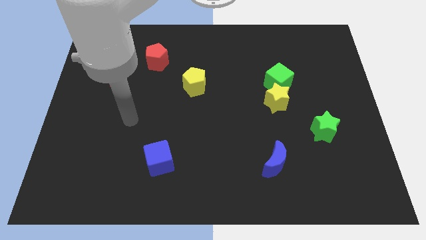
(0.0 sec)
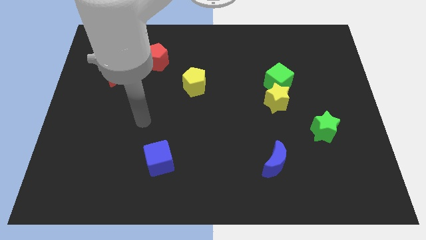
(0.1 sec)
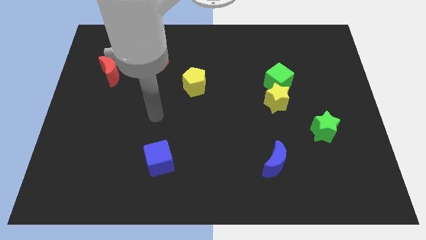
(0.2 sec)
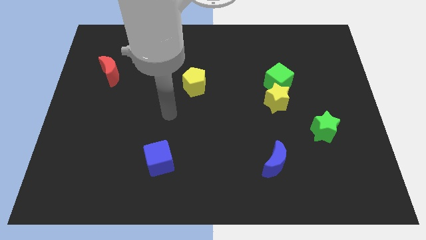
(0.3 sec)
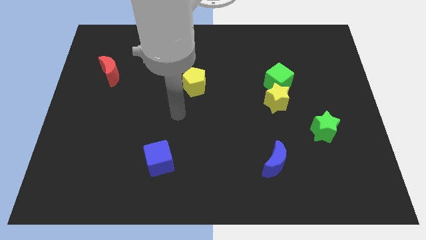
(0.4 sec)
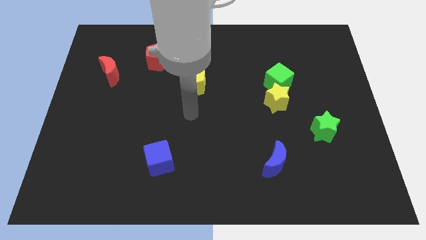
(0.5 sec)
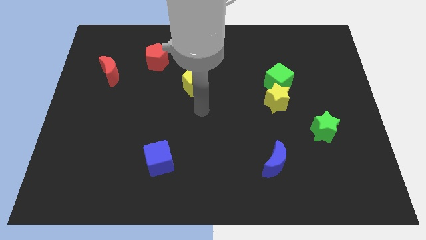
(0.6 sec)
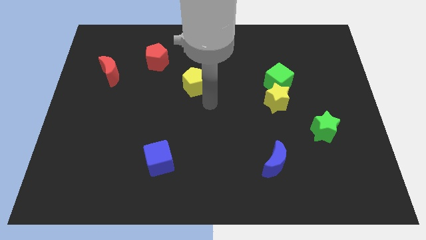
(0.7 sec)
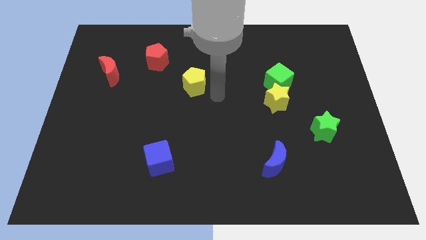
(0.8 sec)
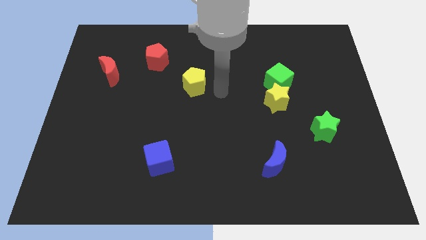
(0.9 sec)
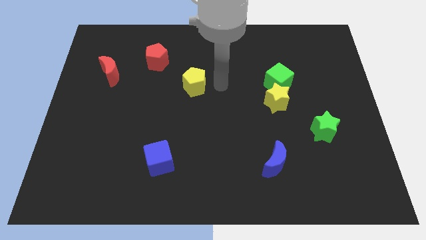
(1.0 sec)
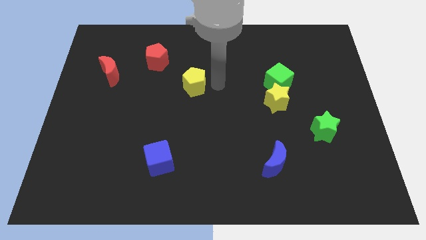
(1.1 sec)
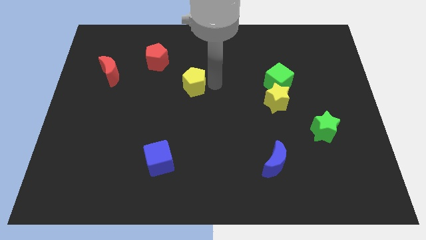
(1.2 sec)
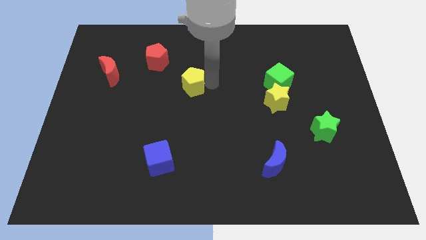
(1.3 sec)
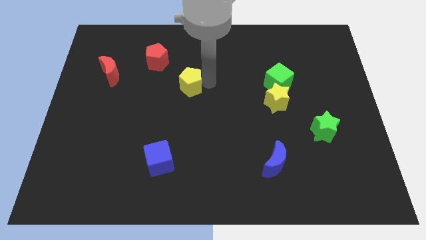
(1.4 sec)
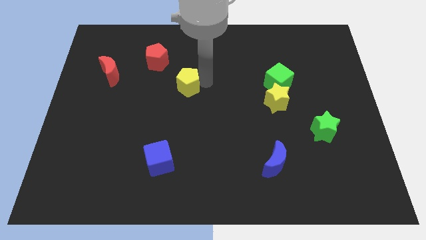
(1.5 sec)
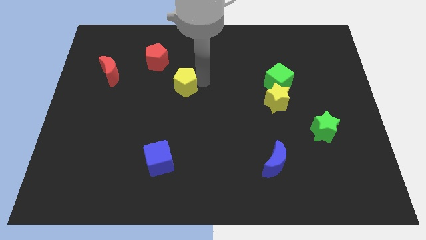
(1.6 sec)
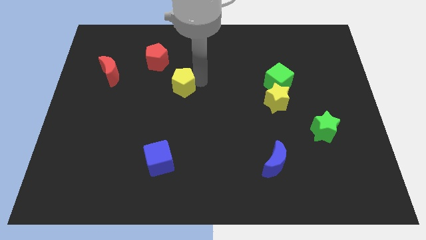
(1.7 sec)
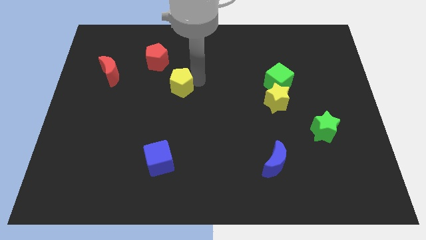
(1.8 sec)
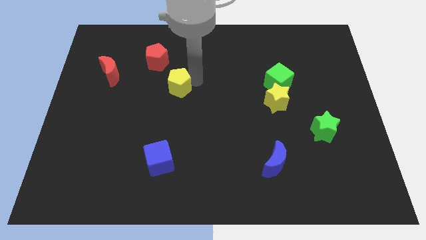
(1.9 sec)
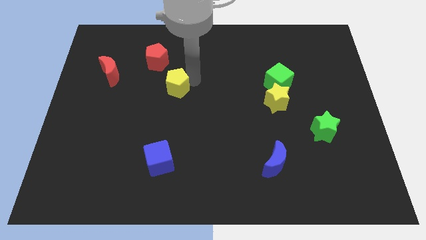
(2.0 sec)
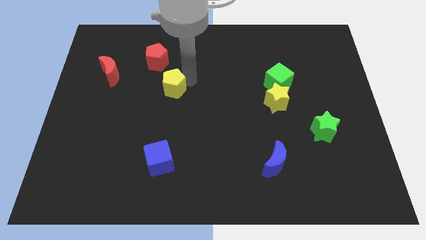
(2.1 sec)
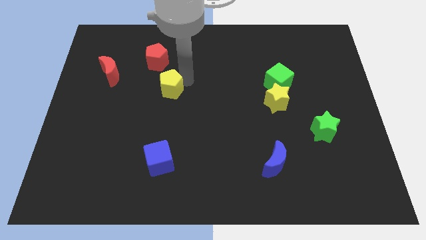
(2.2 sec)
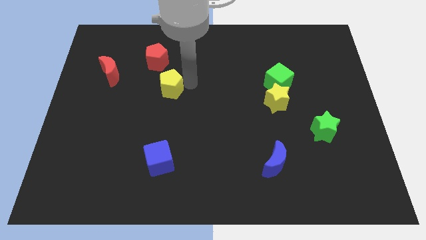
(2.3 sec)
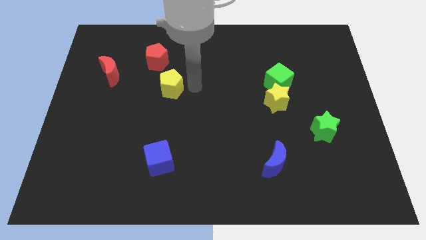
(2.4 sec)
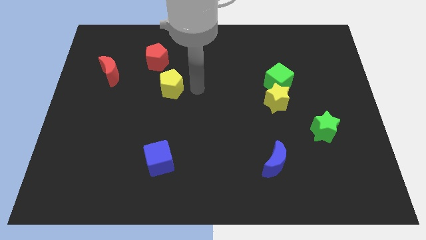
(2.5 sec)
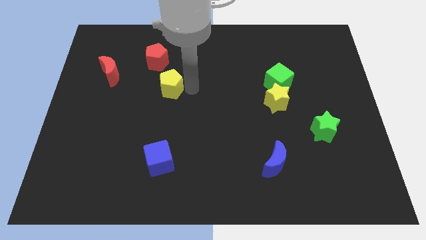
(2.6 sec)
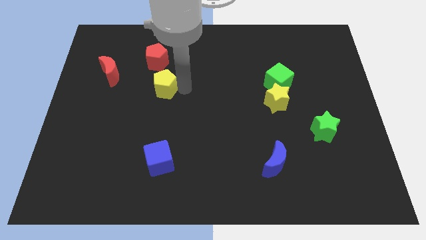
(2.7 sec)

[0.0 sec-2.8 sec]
slightly push the yellow pentagon to the left

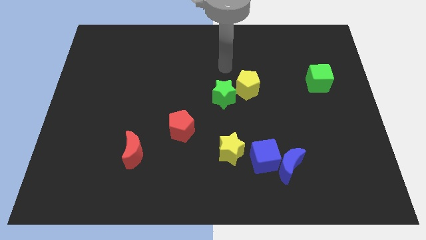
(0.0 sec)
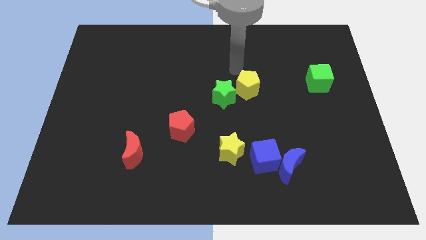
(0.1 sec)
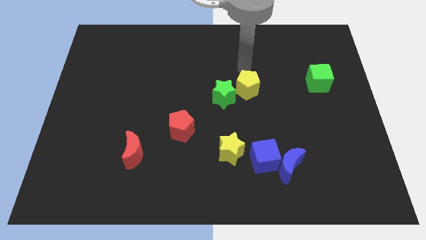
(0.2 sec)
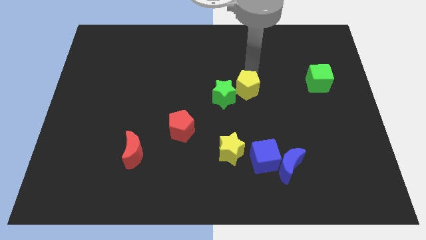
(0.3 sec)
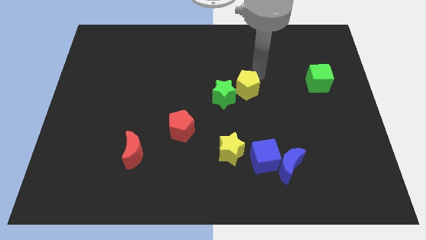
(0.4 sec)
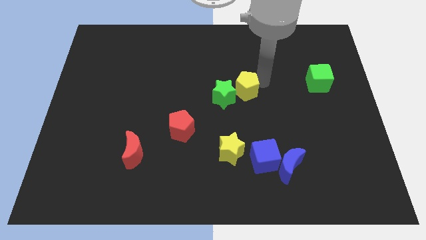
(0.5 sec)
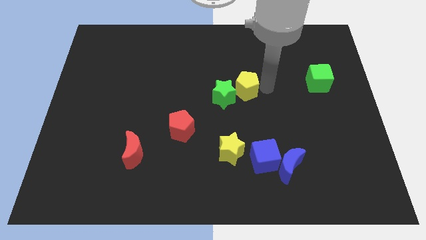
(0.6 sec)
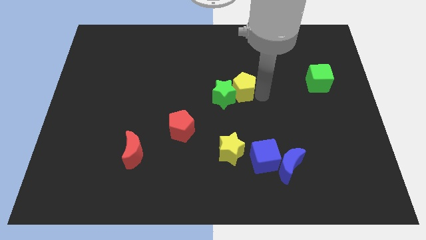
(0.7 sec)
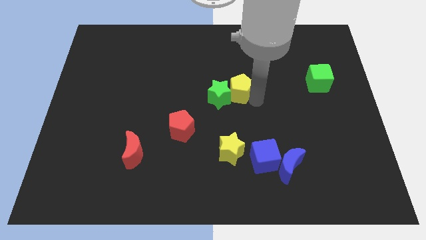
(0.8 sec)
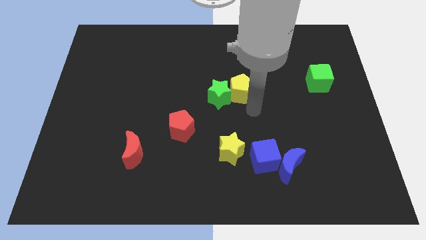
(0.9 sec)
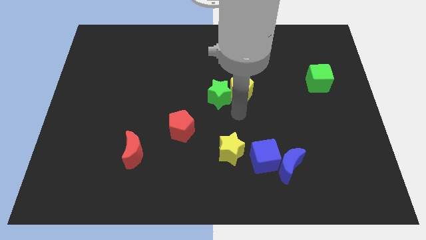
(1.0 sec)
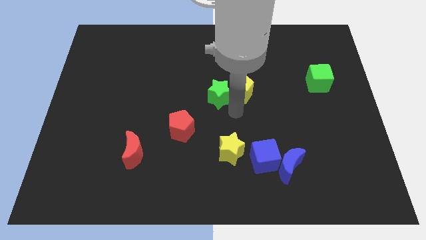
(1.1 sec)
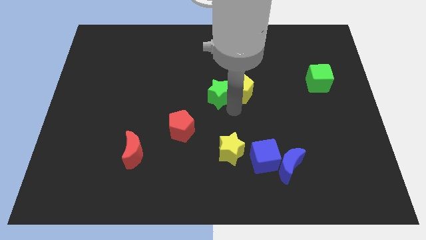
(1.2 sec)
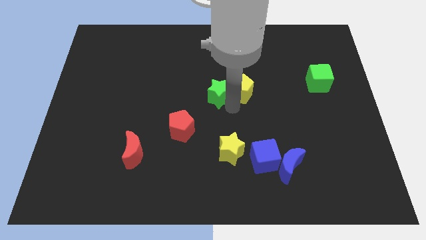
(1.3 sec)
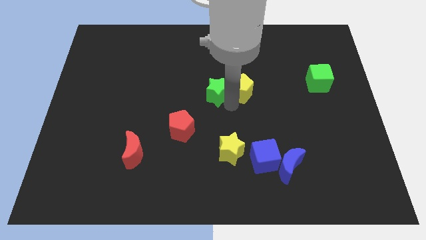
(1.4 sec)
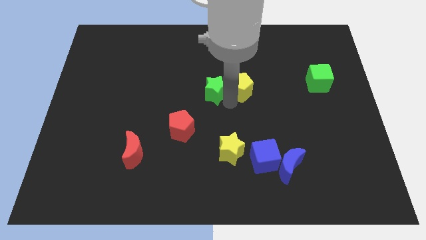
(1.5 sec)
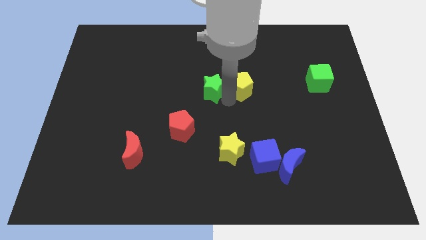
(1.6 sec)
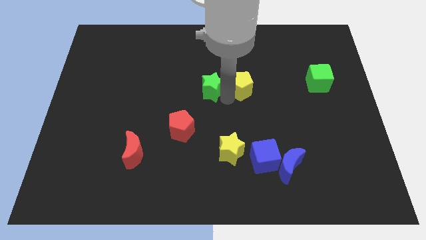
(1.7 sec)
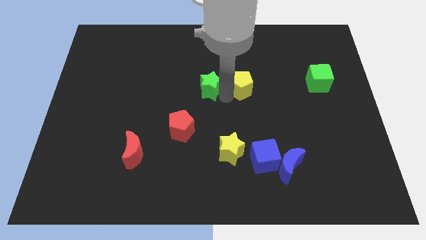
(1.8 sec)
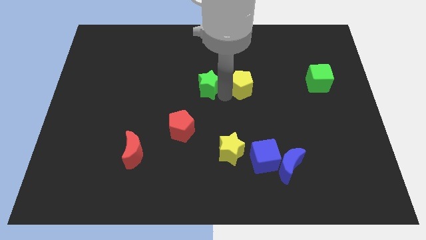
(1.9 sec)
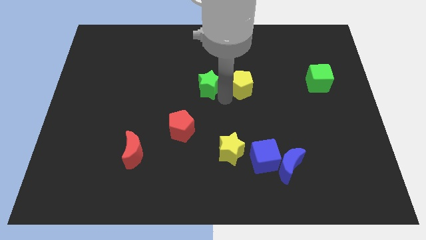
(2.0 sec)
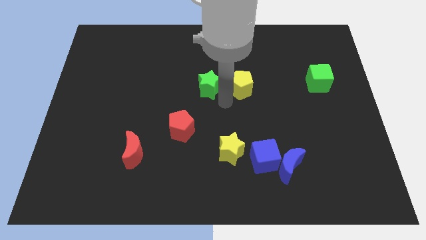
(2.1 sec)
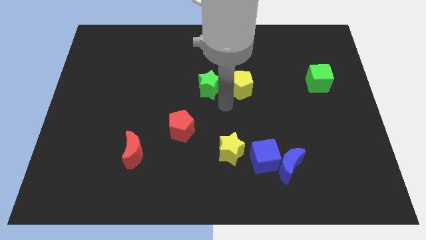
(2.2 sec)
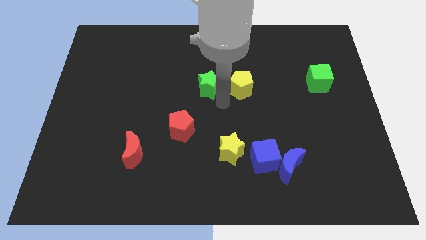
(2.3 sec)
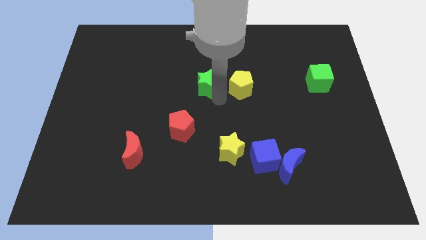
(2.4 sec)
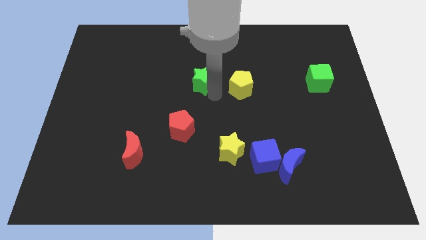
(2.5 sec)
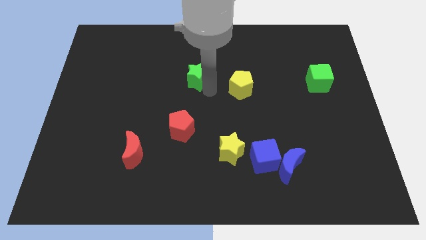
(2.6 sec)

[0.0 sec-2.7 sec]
move the green star upwards and then left a little bit

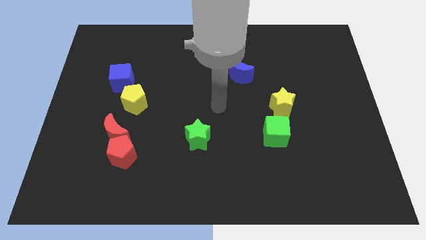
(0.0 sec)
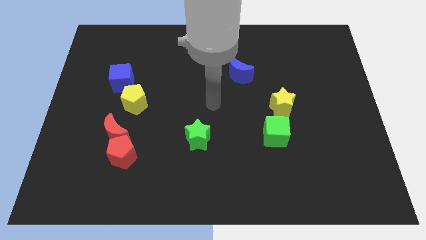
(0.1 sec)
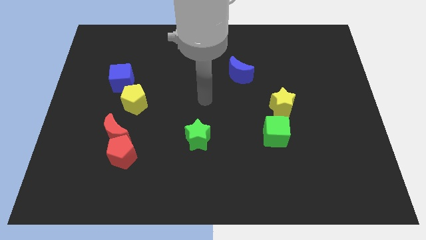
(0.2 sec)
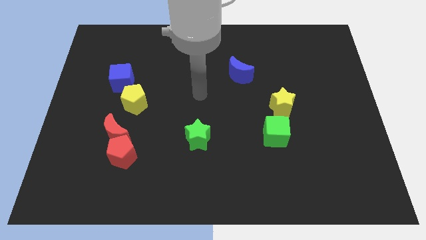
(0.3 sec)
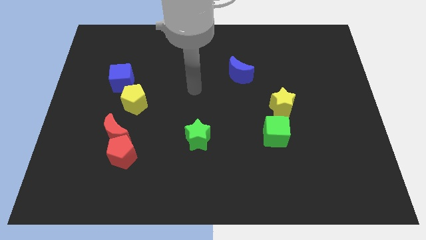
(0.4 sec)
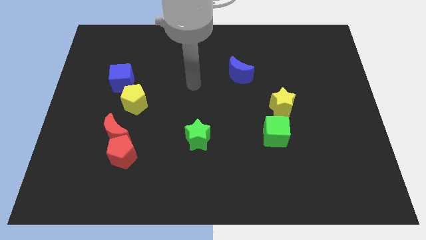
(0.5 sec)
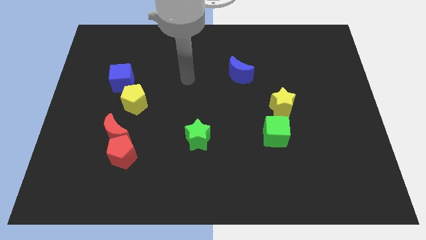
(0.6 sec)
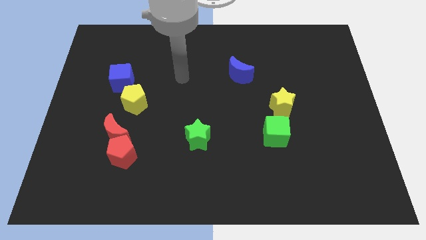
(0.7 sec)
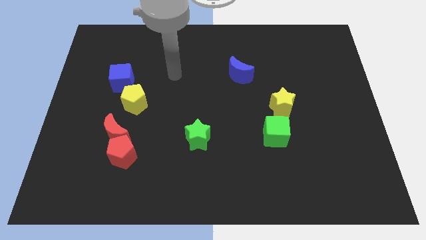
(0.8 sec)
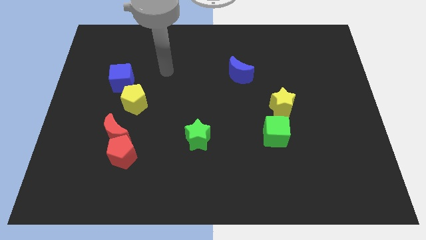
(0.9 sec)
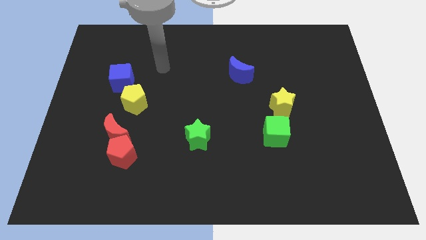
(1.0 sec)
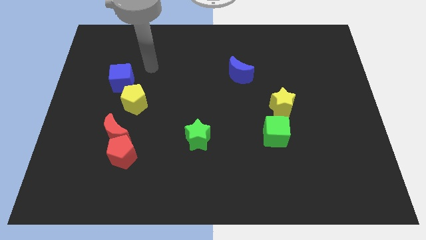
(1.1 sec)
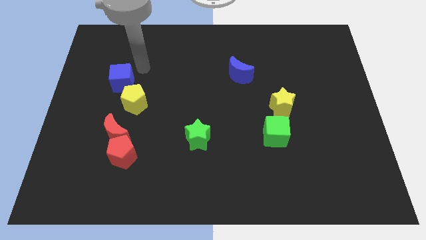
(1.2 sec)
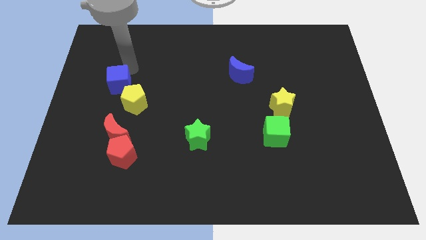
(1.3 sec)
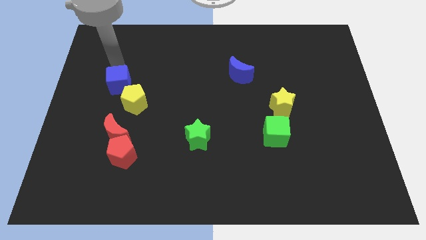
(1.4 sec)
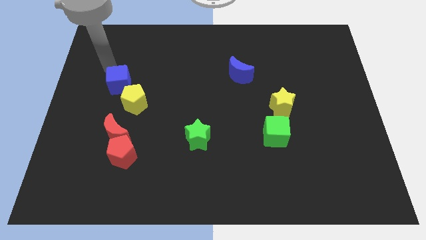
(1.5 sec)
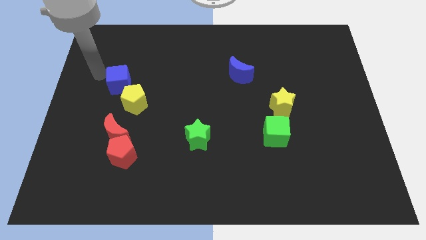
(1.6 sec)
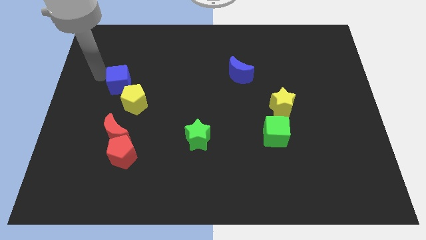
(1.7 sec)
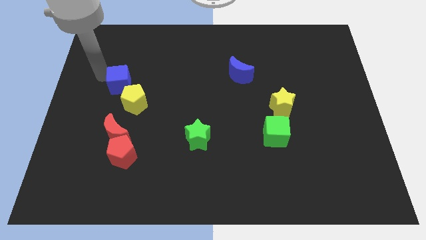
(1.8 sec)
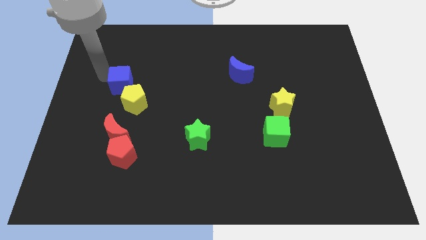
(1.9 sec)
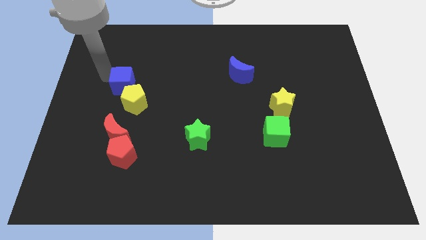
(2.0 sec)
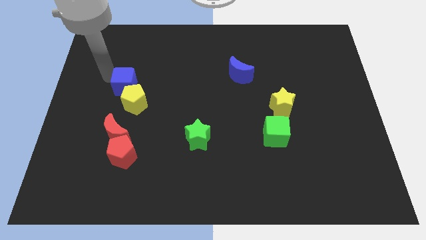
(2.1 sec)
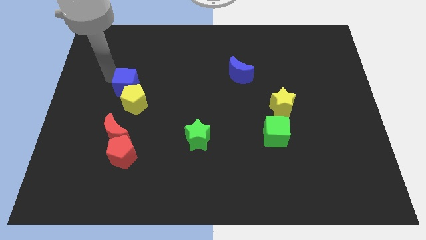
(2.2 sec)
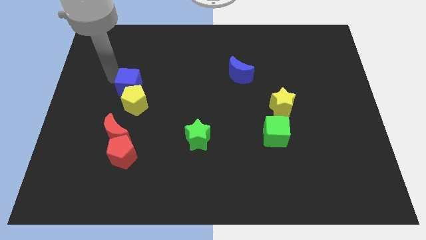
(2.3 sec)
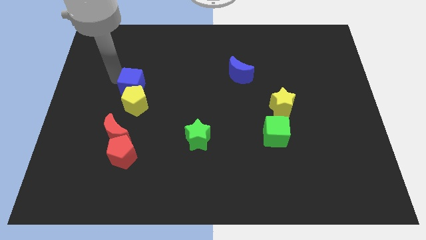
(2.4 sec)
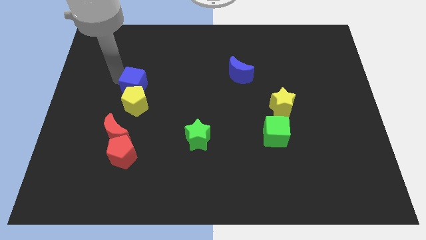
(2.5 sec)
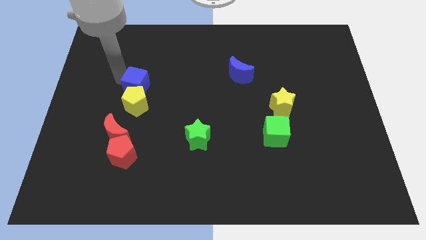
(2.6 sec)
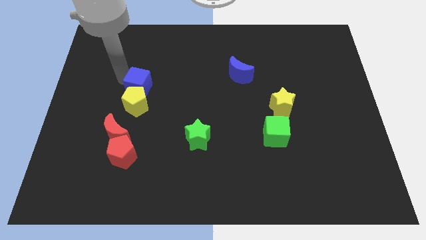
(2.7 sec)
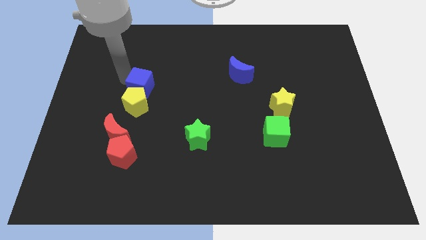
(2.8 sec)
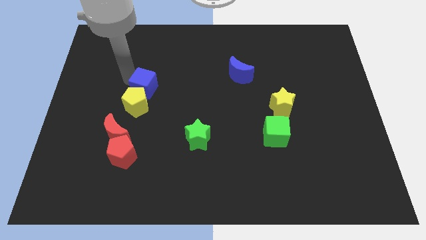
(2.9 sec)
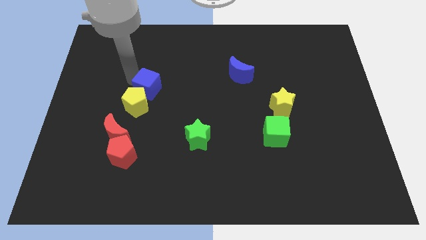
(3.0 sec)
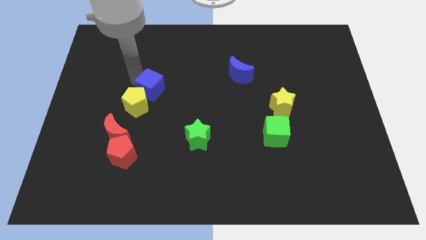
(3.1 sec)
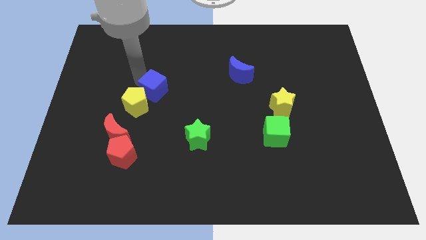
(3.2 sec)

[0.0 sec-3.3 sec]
slightly move the blue cube diagonally downwards and right
